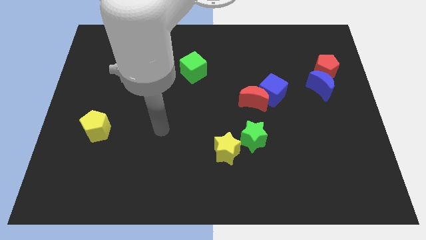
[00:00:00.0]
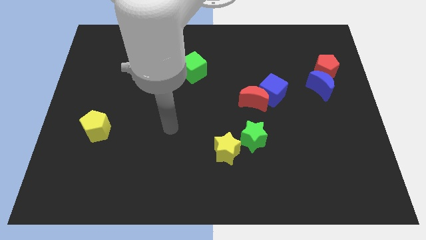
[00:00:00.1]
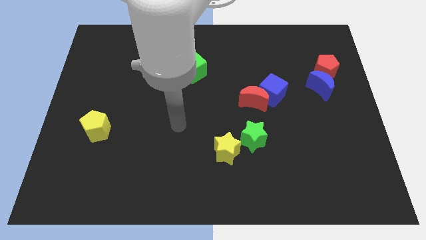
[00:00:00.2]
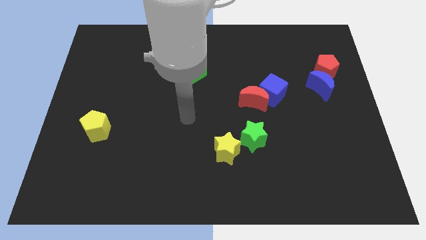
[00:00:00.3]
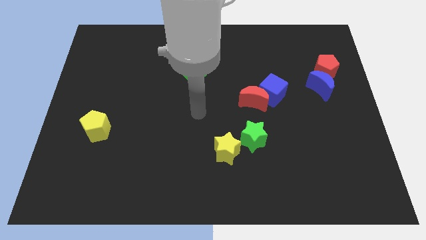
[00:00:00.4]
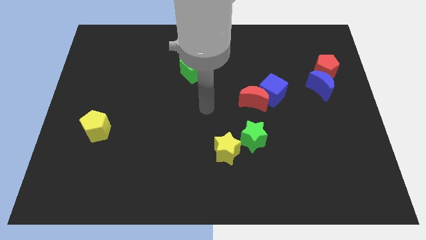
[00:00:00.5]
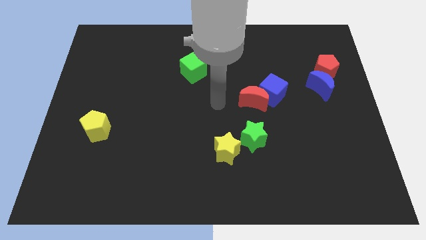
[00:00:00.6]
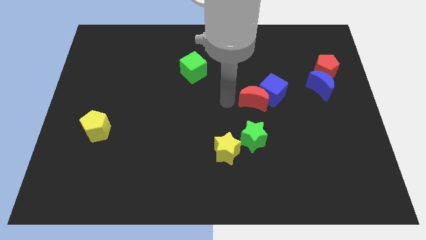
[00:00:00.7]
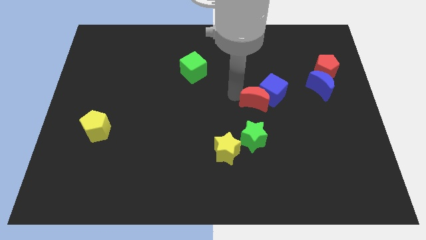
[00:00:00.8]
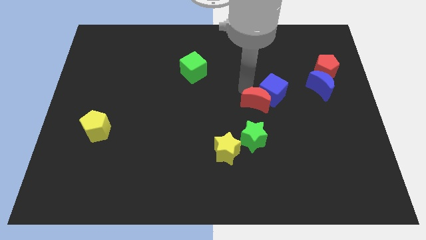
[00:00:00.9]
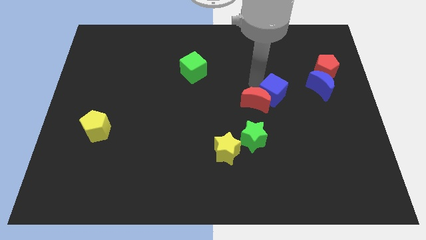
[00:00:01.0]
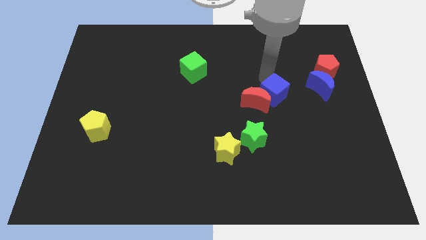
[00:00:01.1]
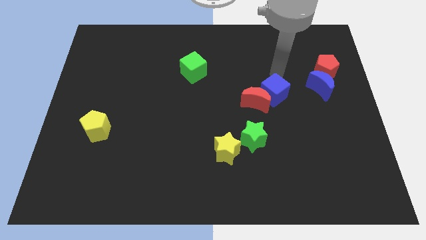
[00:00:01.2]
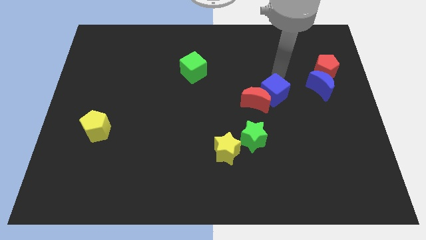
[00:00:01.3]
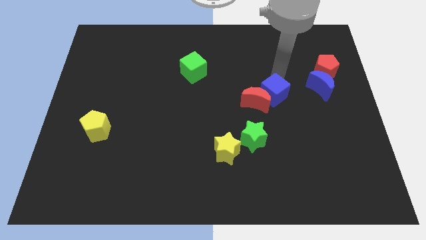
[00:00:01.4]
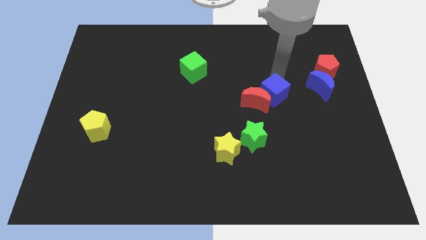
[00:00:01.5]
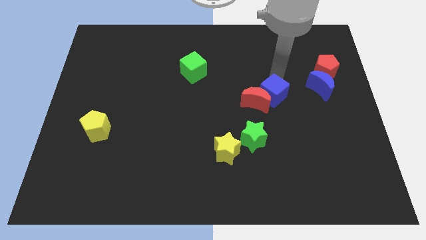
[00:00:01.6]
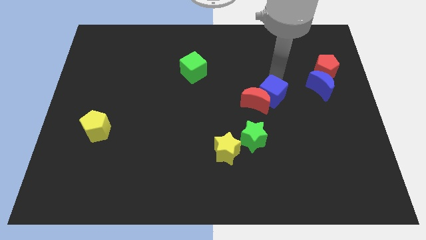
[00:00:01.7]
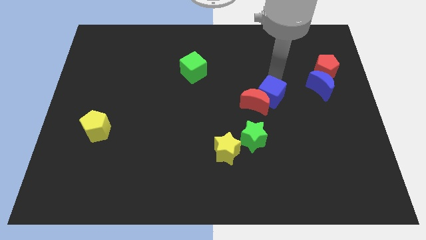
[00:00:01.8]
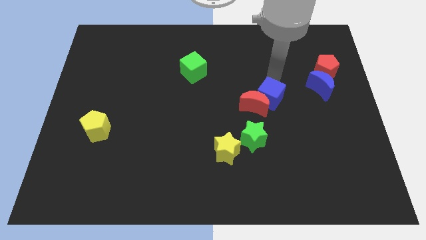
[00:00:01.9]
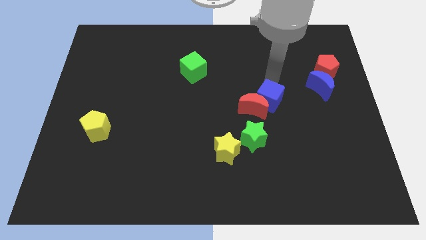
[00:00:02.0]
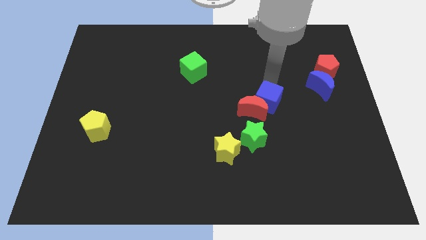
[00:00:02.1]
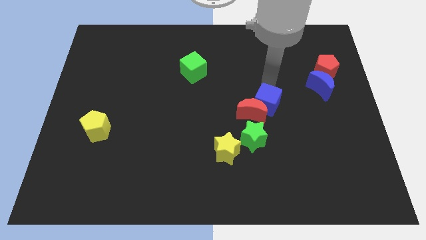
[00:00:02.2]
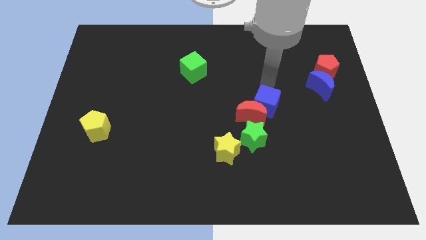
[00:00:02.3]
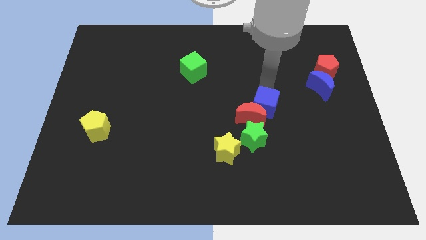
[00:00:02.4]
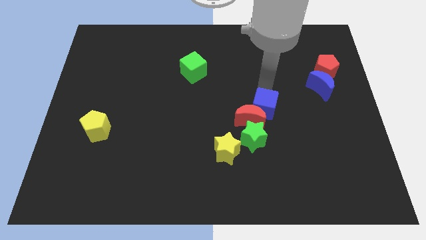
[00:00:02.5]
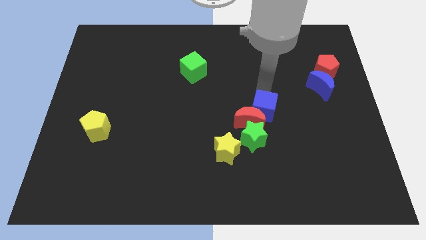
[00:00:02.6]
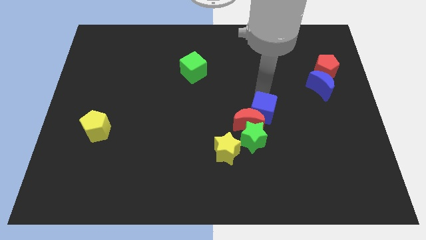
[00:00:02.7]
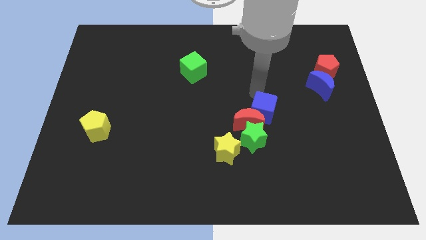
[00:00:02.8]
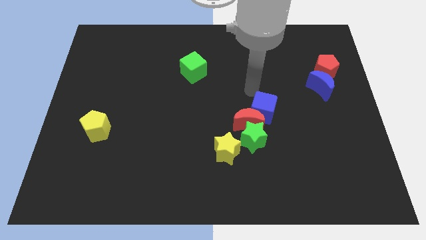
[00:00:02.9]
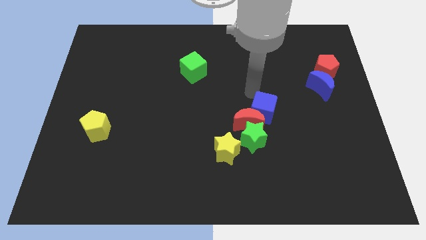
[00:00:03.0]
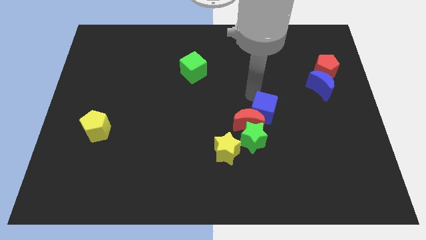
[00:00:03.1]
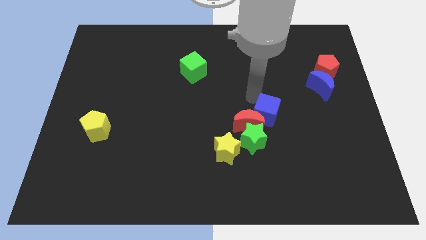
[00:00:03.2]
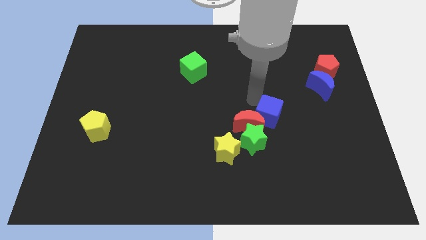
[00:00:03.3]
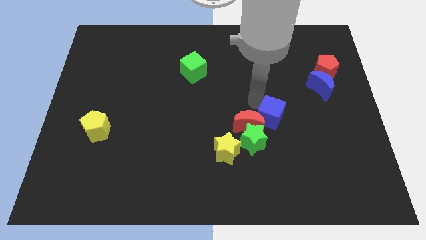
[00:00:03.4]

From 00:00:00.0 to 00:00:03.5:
slightly move the blue cube downwards

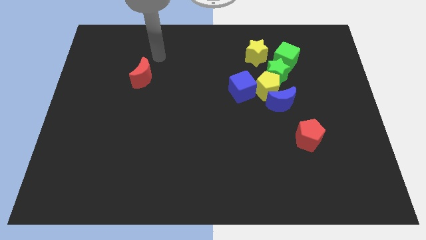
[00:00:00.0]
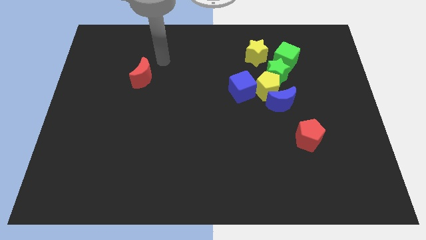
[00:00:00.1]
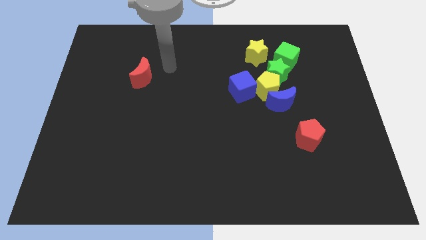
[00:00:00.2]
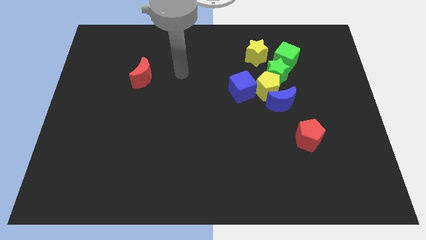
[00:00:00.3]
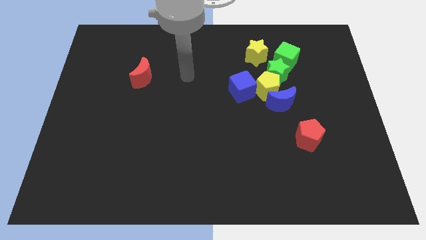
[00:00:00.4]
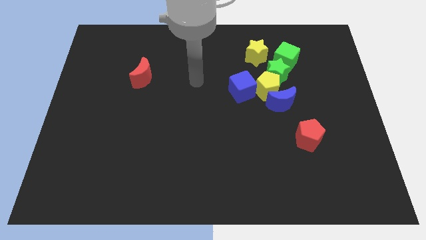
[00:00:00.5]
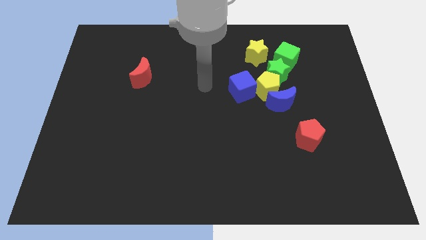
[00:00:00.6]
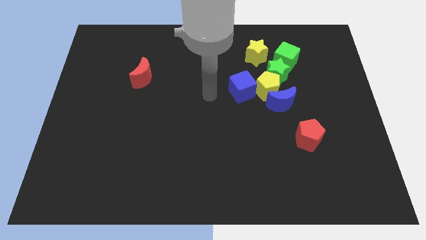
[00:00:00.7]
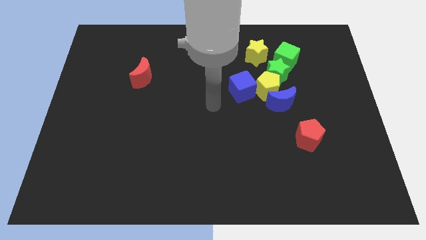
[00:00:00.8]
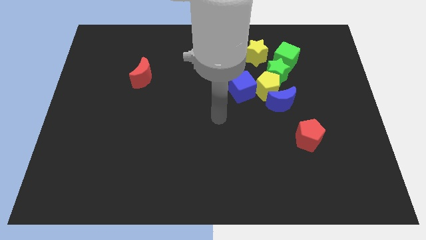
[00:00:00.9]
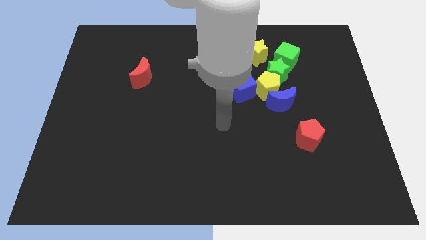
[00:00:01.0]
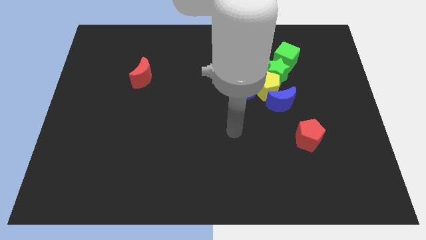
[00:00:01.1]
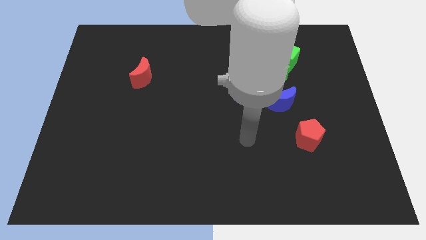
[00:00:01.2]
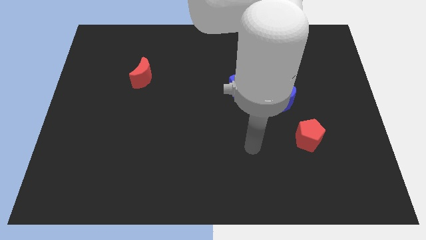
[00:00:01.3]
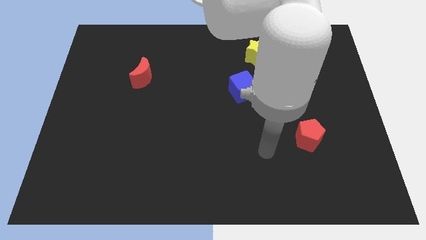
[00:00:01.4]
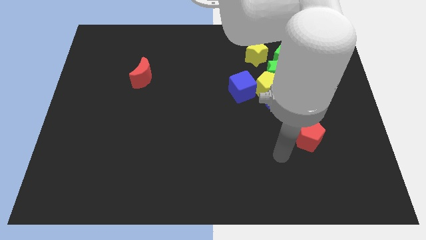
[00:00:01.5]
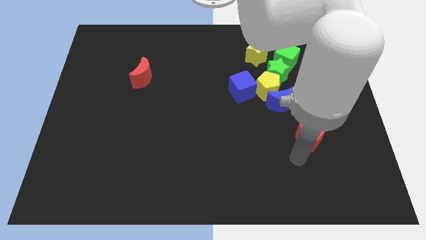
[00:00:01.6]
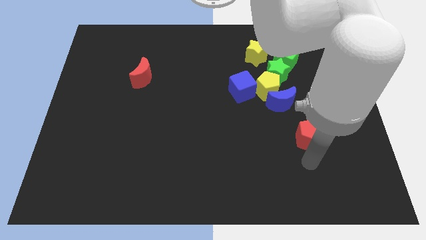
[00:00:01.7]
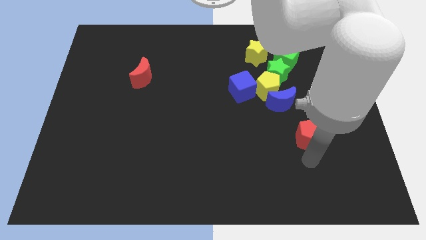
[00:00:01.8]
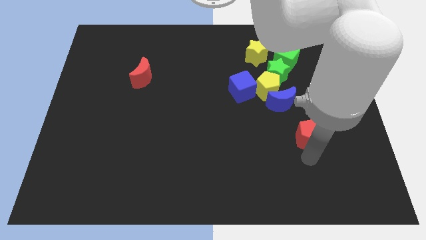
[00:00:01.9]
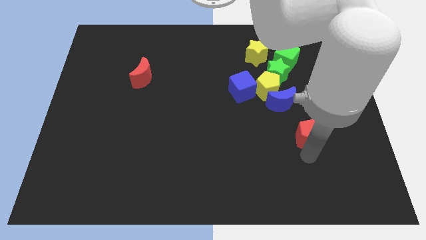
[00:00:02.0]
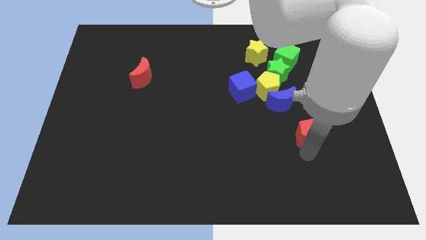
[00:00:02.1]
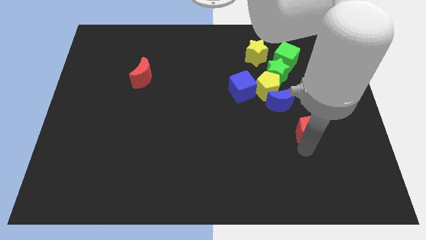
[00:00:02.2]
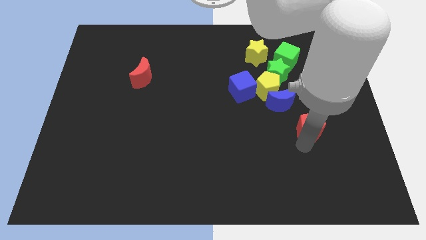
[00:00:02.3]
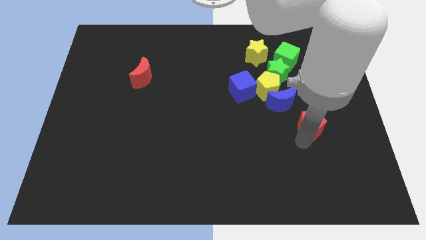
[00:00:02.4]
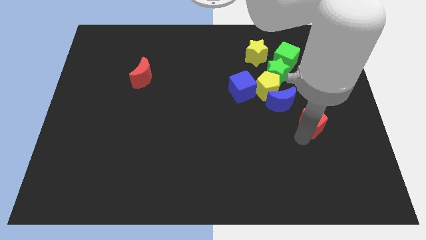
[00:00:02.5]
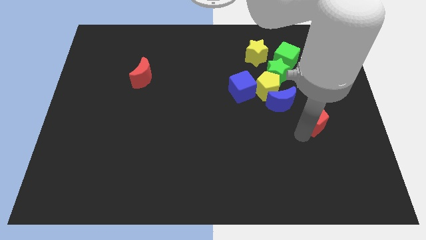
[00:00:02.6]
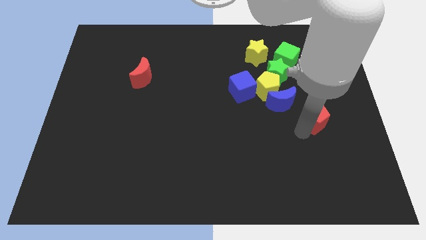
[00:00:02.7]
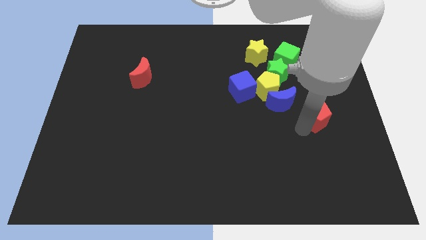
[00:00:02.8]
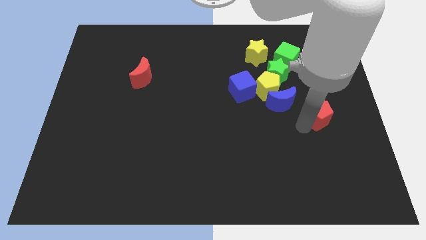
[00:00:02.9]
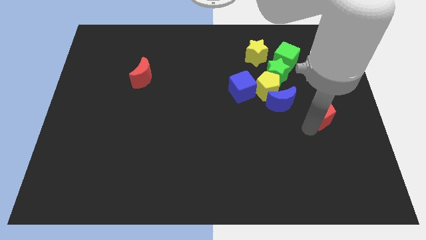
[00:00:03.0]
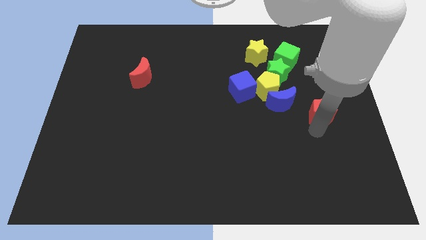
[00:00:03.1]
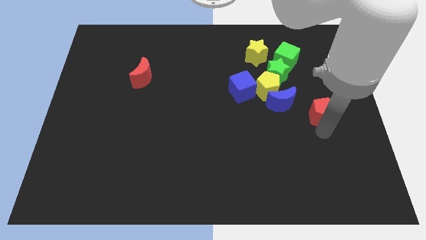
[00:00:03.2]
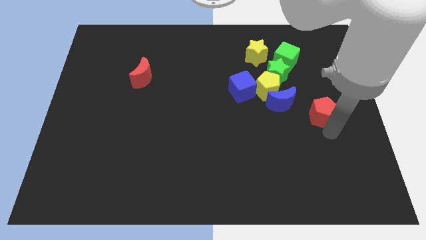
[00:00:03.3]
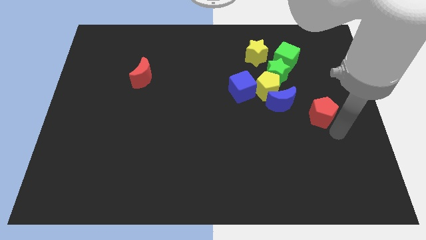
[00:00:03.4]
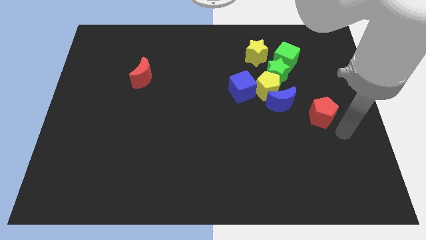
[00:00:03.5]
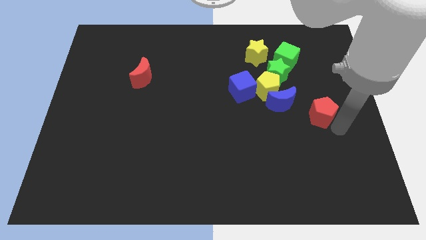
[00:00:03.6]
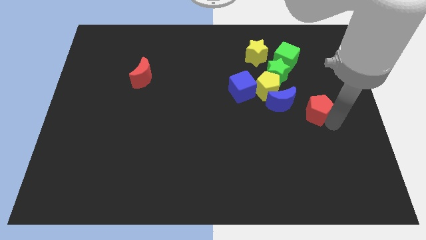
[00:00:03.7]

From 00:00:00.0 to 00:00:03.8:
slightly slide the red pentagon up

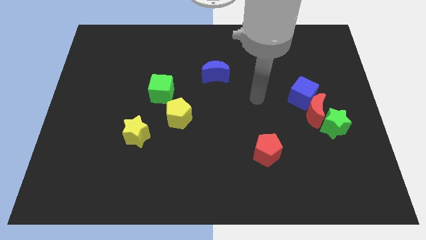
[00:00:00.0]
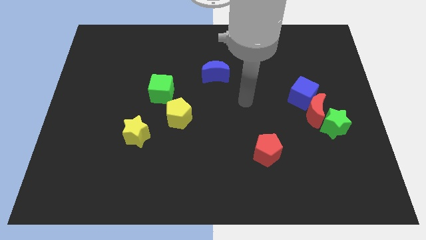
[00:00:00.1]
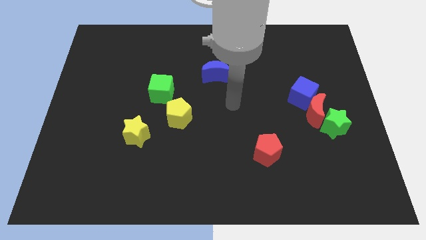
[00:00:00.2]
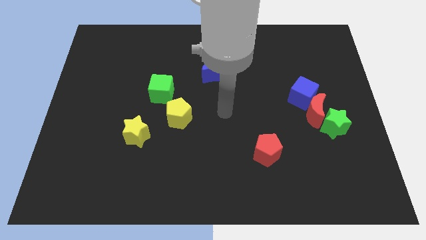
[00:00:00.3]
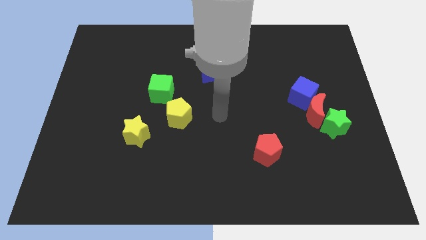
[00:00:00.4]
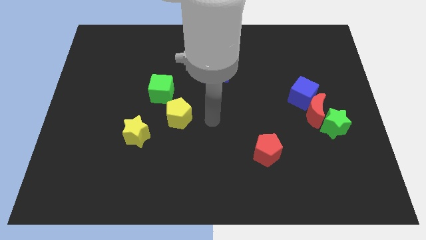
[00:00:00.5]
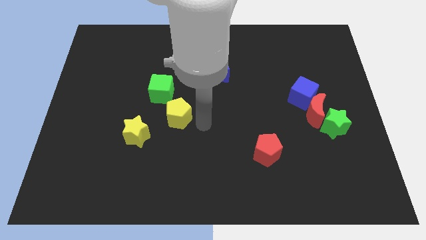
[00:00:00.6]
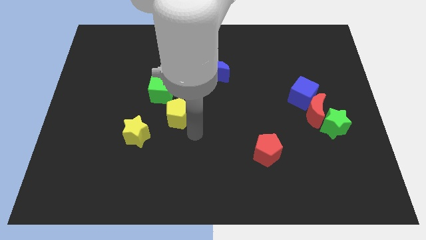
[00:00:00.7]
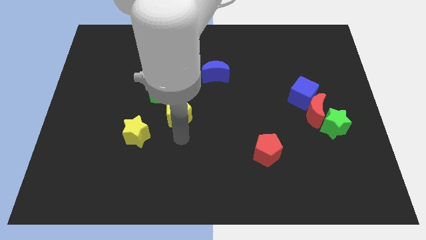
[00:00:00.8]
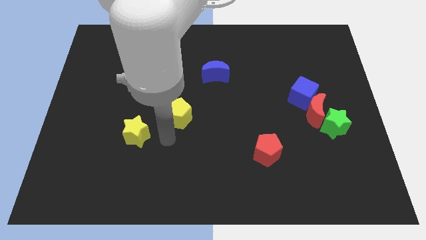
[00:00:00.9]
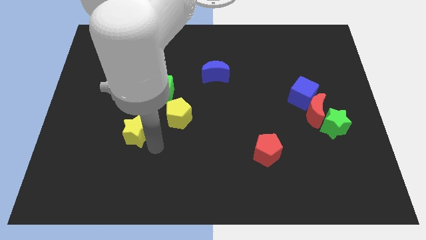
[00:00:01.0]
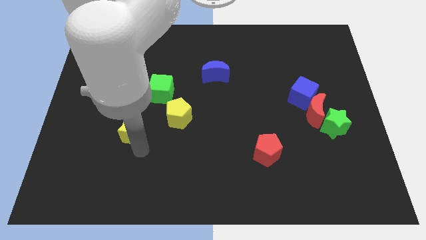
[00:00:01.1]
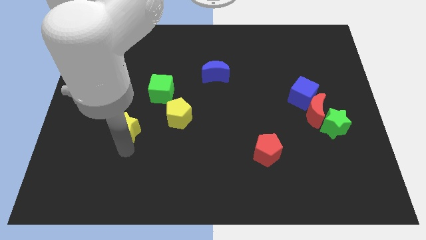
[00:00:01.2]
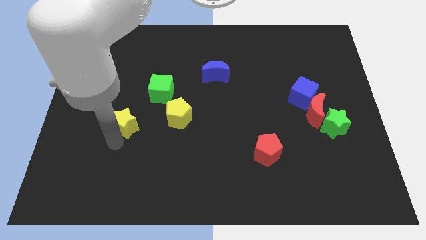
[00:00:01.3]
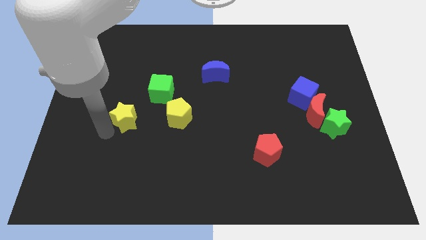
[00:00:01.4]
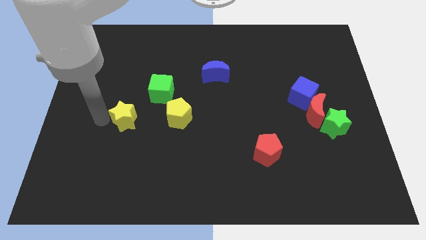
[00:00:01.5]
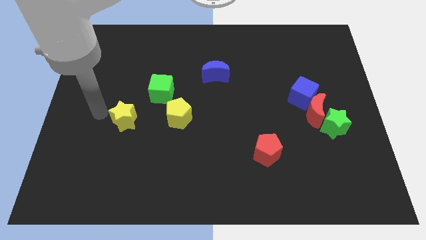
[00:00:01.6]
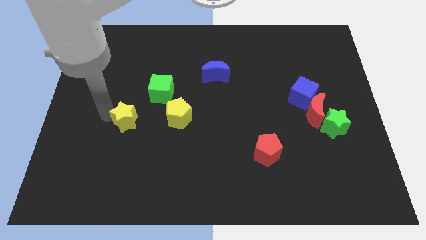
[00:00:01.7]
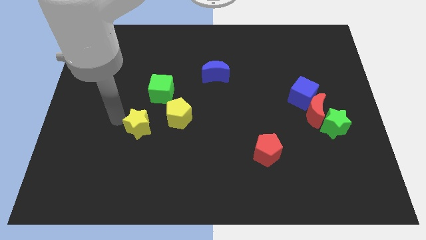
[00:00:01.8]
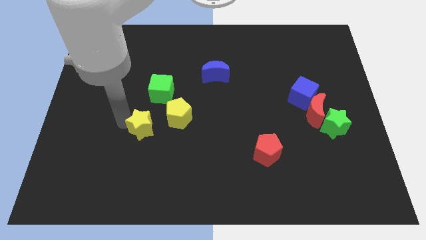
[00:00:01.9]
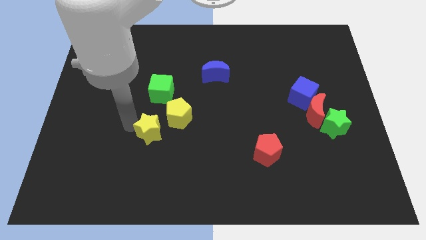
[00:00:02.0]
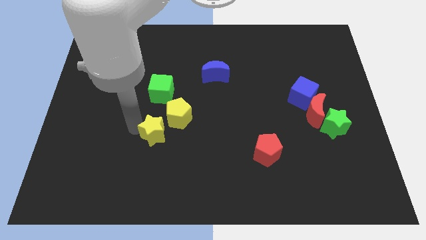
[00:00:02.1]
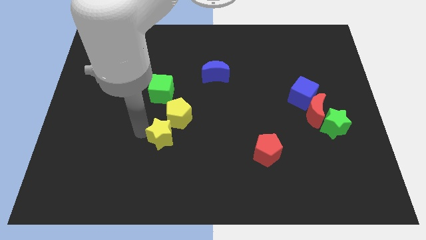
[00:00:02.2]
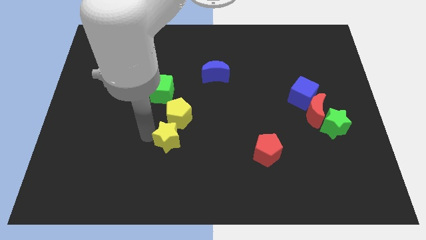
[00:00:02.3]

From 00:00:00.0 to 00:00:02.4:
slightly slide the yellow star to the right
